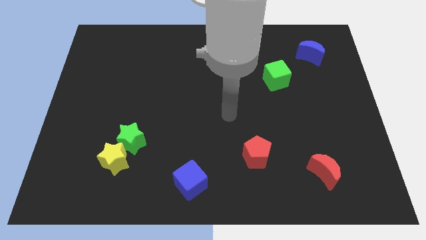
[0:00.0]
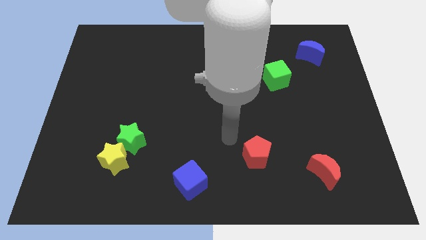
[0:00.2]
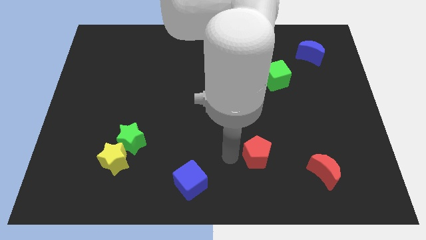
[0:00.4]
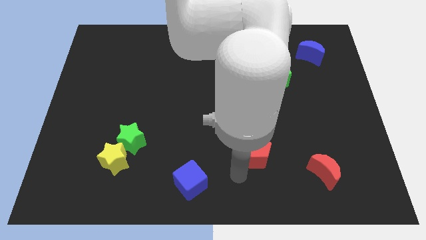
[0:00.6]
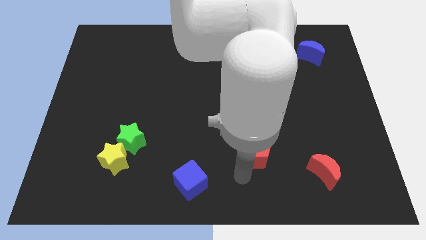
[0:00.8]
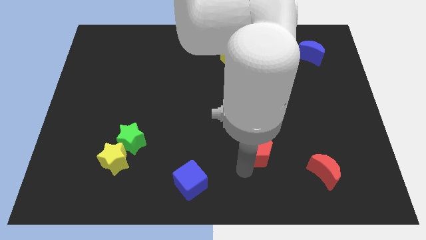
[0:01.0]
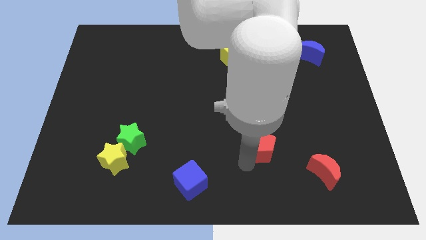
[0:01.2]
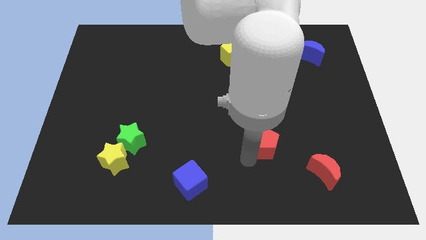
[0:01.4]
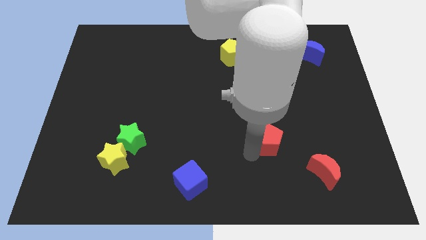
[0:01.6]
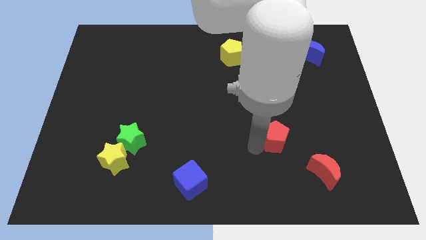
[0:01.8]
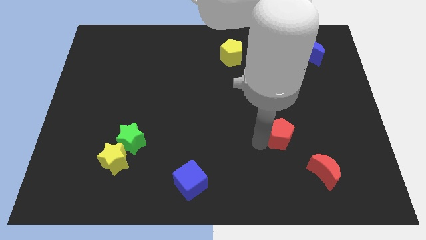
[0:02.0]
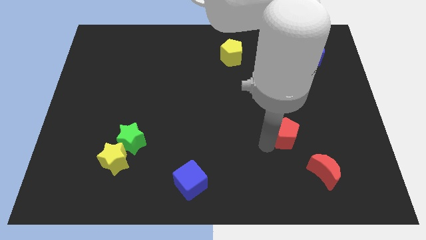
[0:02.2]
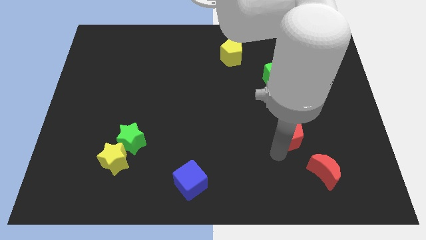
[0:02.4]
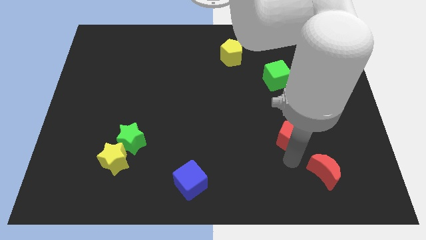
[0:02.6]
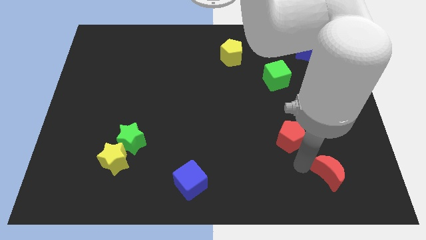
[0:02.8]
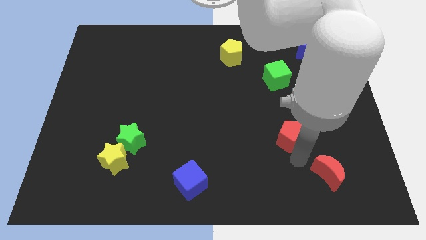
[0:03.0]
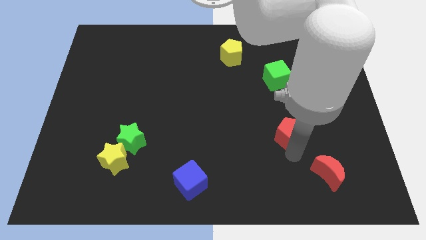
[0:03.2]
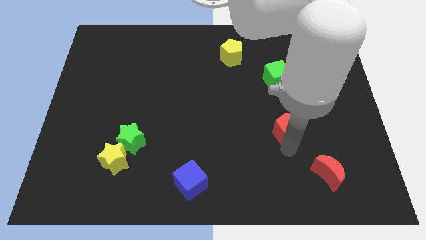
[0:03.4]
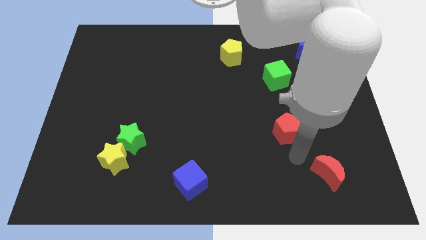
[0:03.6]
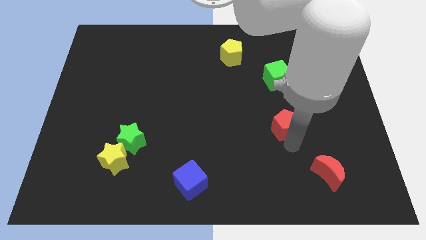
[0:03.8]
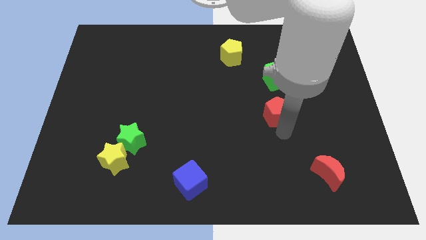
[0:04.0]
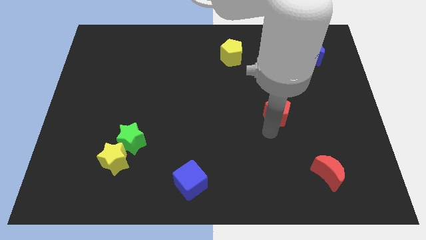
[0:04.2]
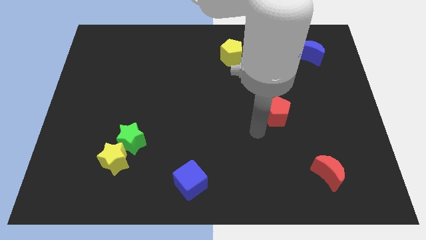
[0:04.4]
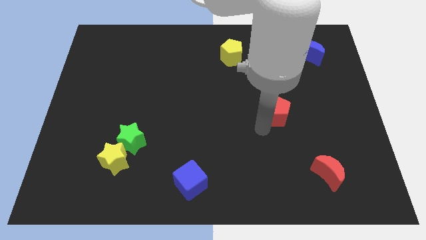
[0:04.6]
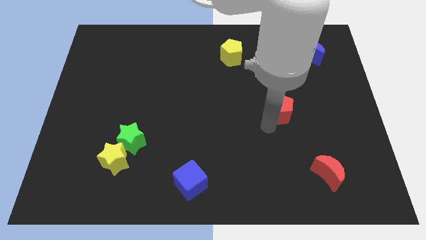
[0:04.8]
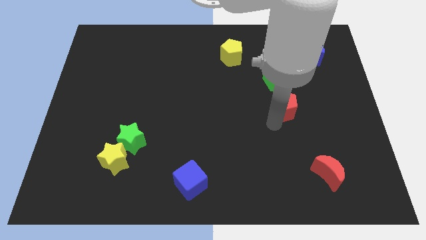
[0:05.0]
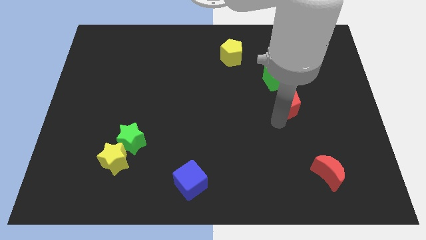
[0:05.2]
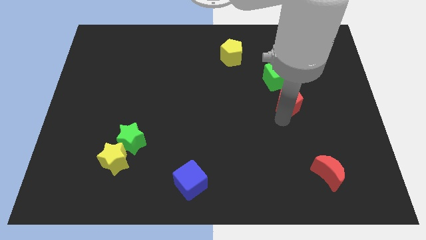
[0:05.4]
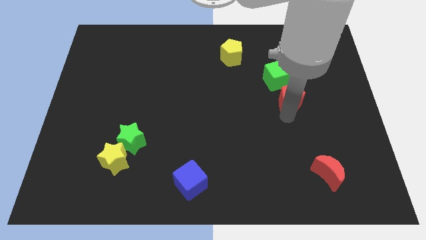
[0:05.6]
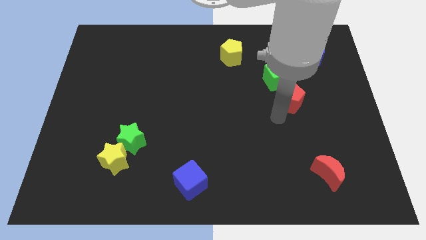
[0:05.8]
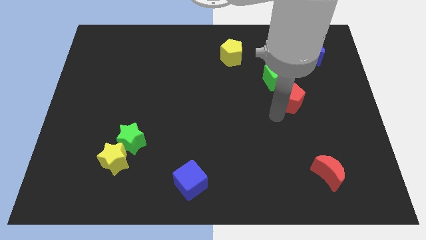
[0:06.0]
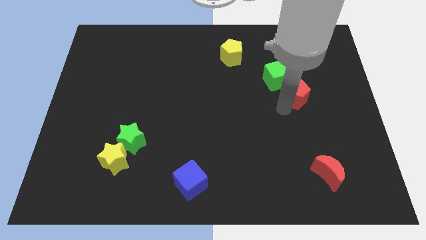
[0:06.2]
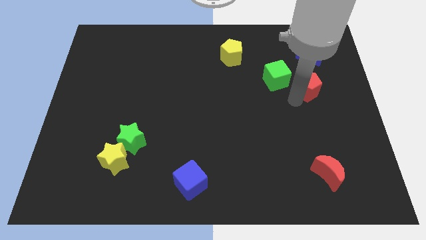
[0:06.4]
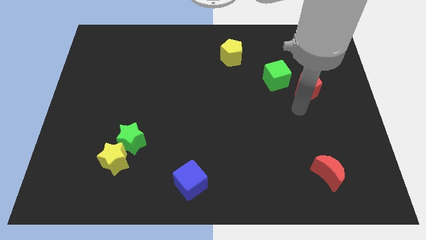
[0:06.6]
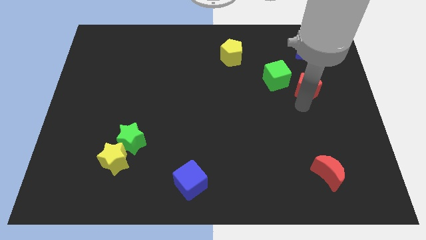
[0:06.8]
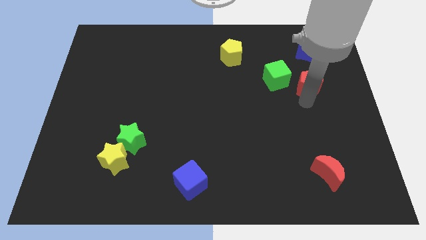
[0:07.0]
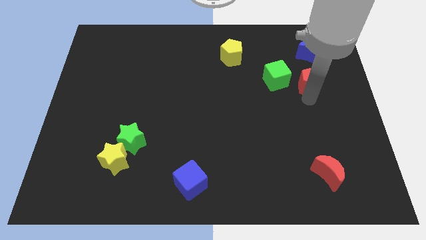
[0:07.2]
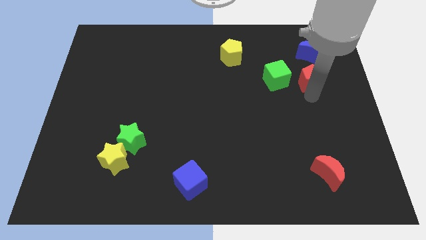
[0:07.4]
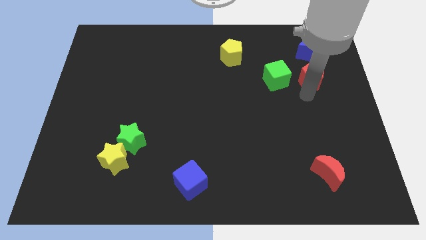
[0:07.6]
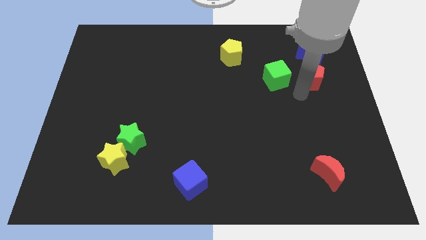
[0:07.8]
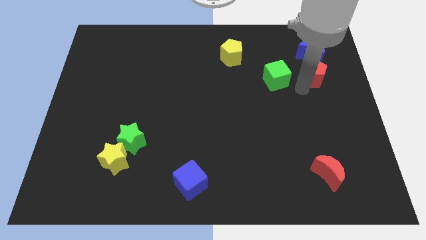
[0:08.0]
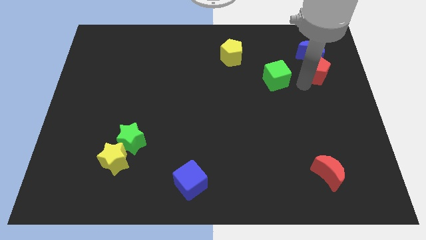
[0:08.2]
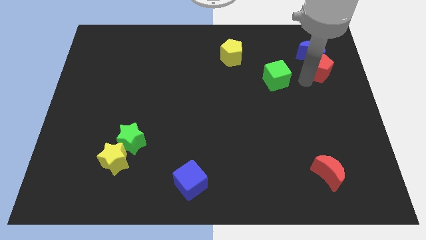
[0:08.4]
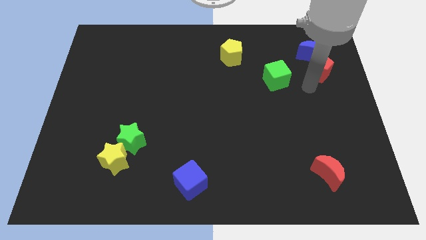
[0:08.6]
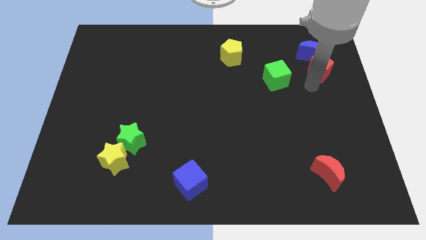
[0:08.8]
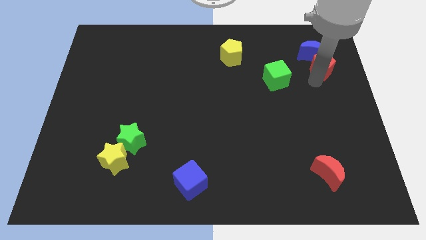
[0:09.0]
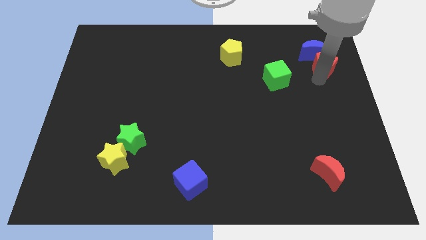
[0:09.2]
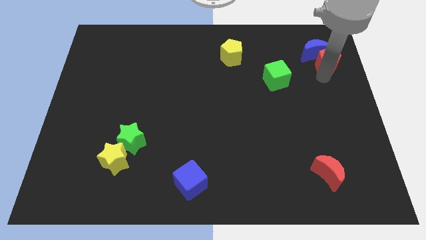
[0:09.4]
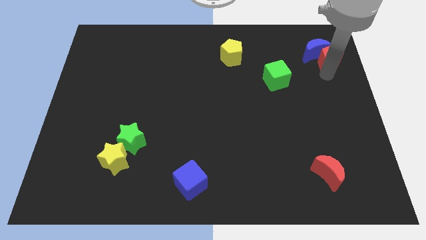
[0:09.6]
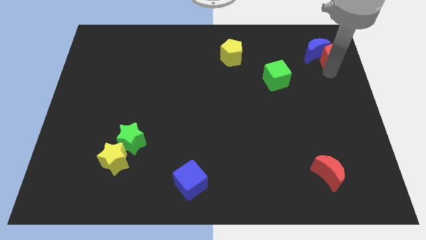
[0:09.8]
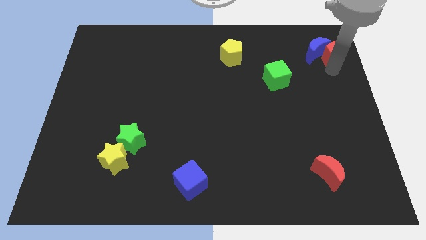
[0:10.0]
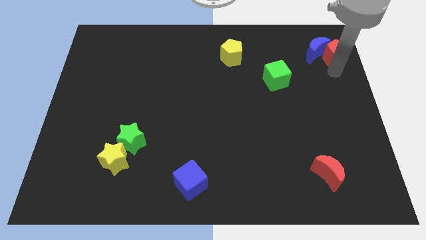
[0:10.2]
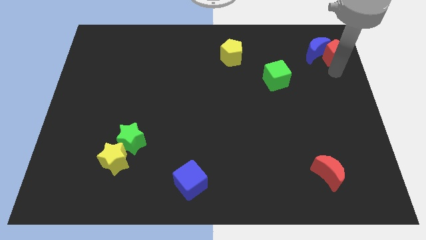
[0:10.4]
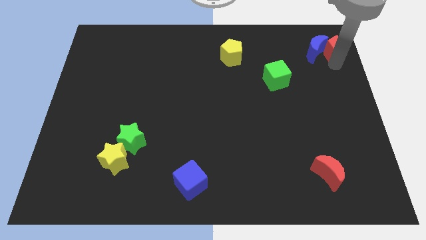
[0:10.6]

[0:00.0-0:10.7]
push the red pentagon to the top right corner

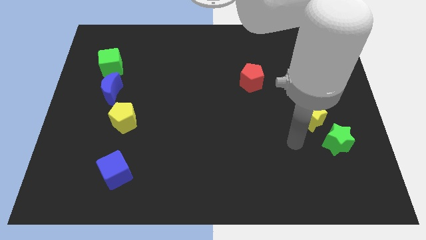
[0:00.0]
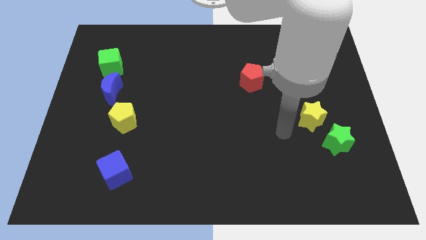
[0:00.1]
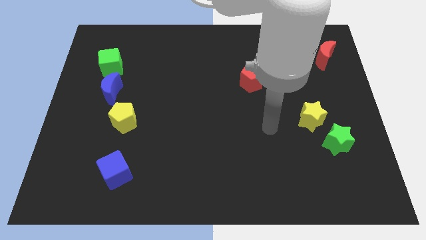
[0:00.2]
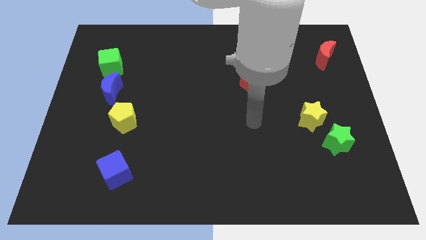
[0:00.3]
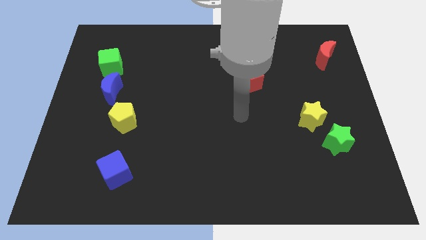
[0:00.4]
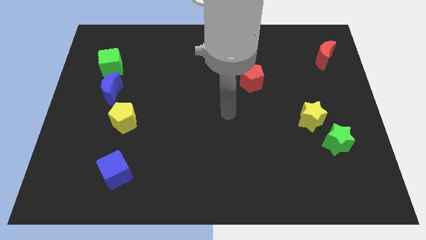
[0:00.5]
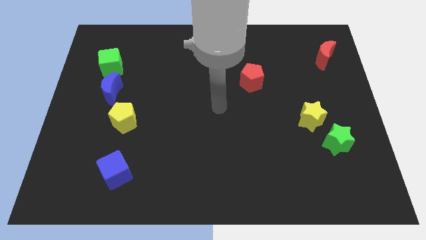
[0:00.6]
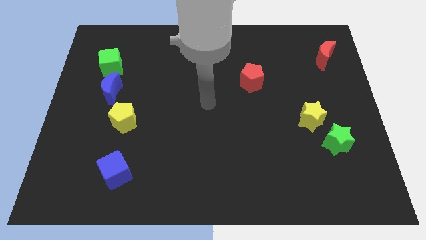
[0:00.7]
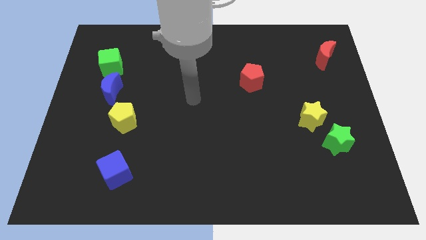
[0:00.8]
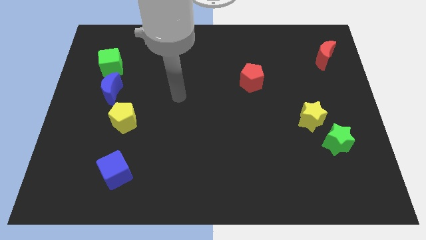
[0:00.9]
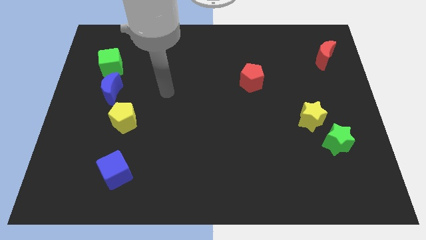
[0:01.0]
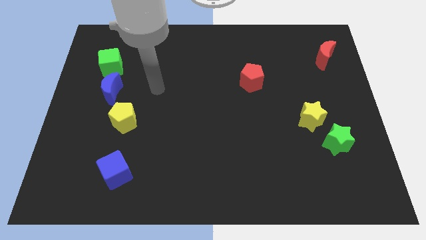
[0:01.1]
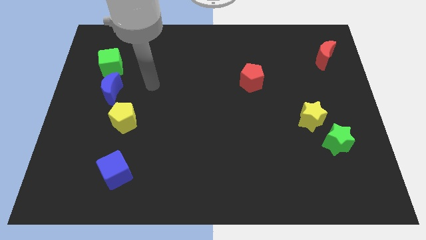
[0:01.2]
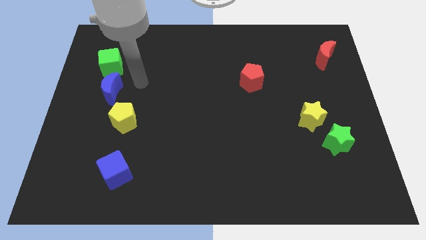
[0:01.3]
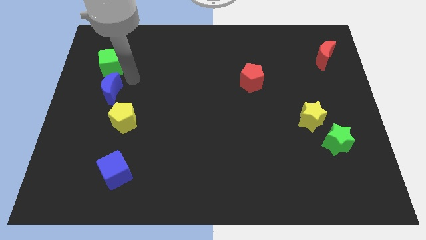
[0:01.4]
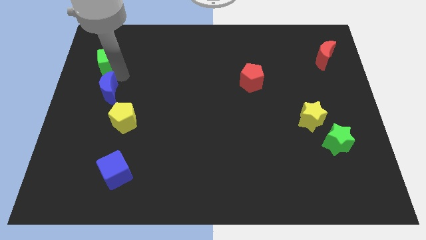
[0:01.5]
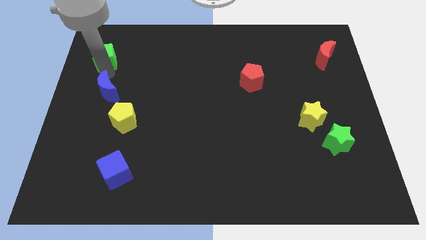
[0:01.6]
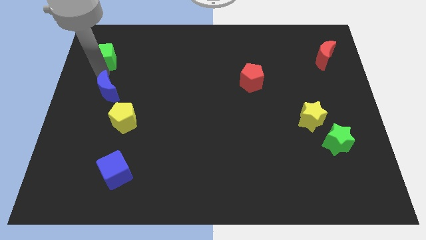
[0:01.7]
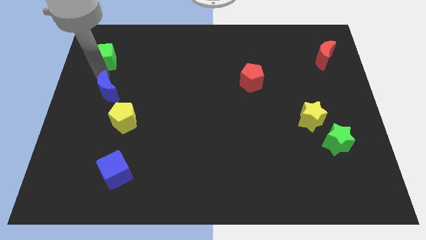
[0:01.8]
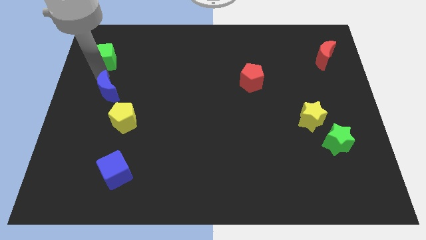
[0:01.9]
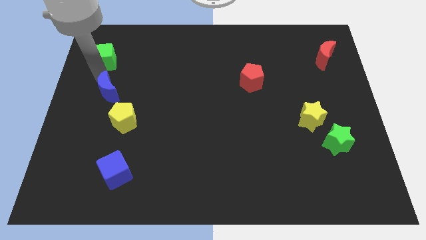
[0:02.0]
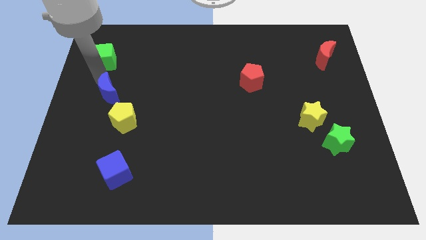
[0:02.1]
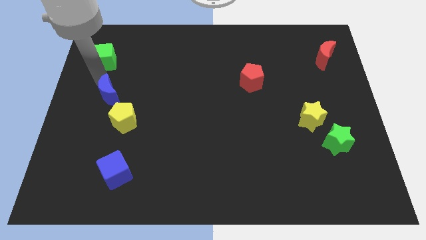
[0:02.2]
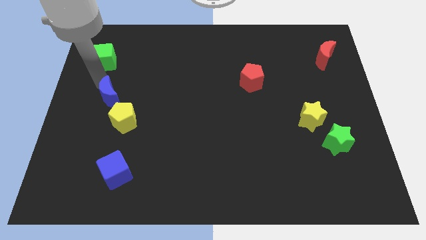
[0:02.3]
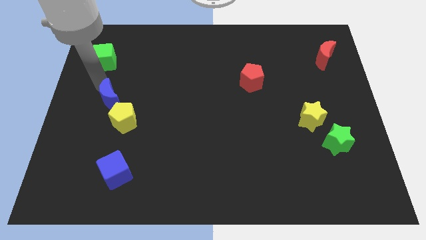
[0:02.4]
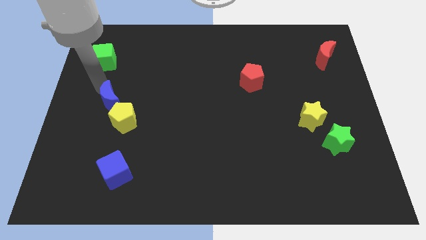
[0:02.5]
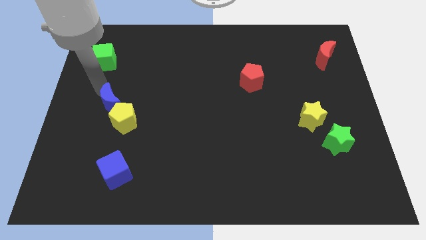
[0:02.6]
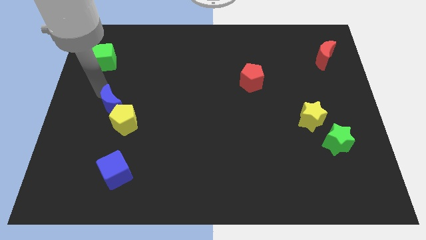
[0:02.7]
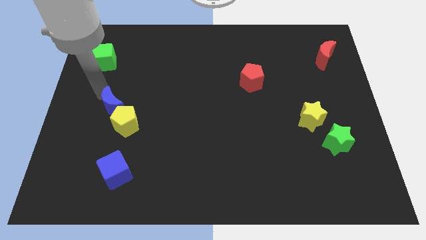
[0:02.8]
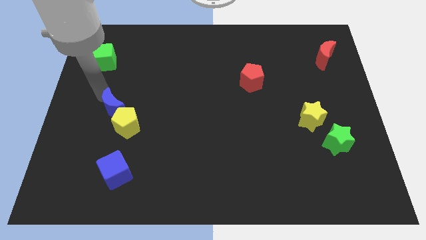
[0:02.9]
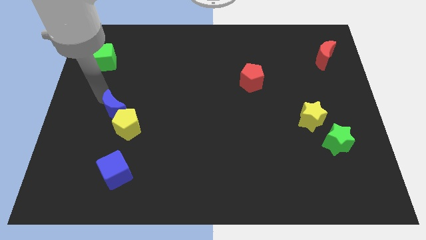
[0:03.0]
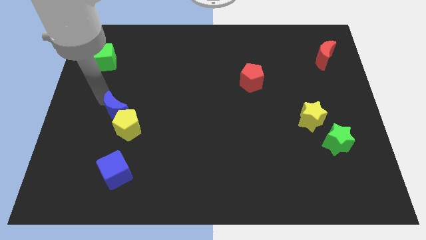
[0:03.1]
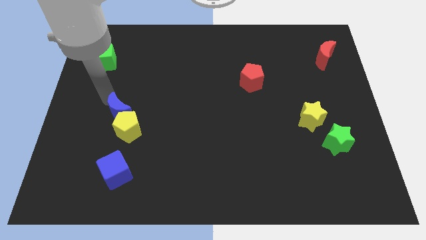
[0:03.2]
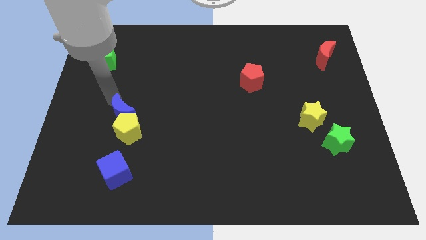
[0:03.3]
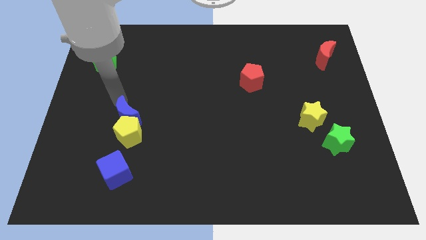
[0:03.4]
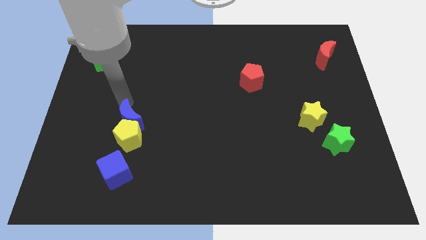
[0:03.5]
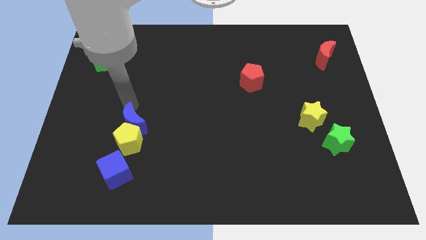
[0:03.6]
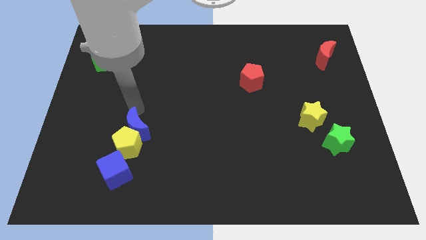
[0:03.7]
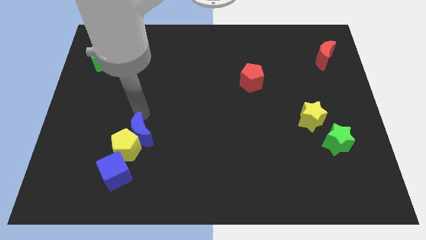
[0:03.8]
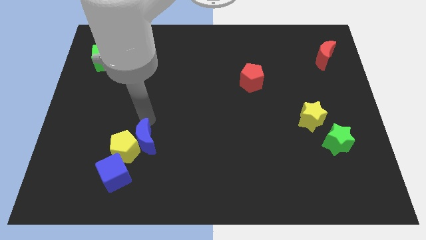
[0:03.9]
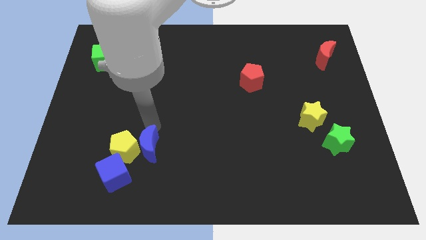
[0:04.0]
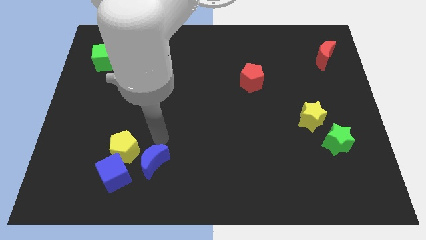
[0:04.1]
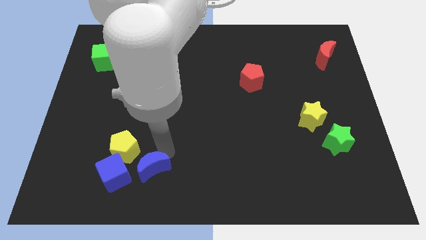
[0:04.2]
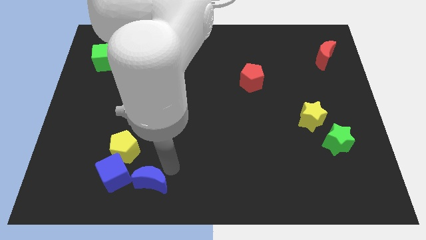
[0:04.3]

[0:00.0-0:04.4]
move the blue moon to the bottom side
